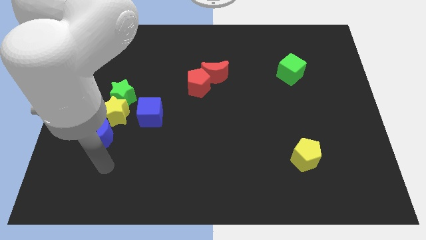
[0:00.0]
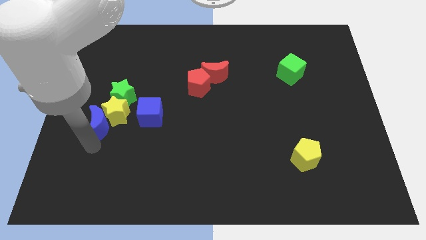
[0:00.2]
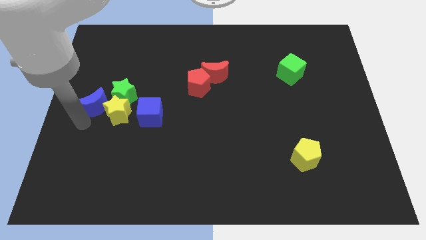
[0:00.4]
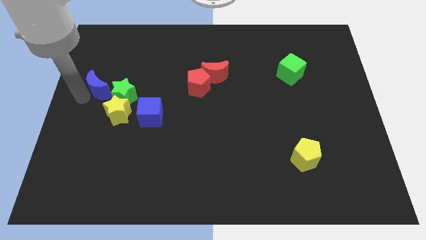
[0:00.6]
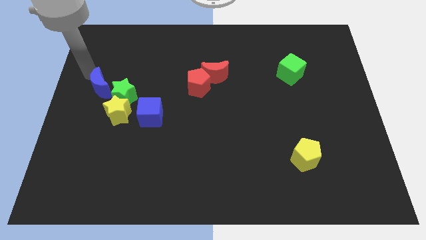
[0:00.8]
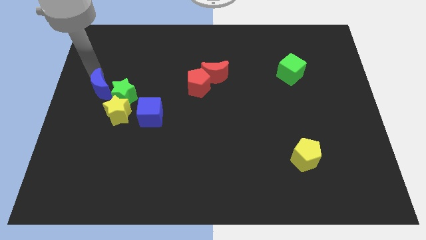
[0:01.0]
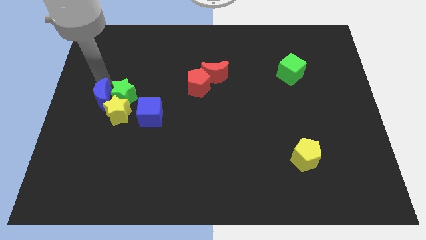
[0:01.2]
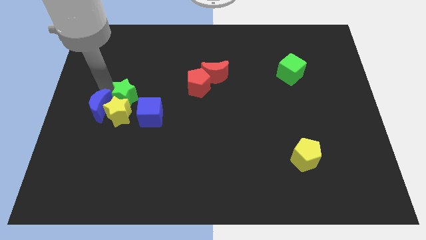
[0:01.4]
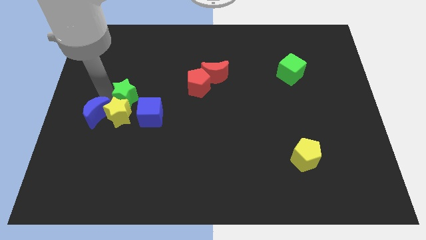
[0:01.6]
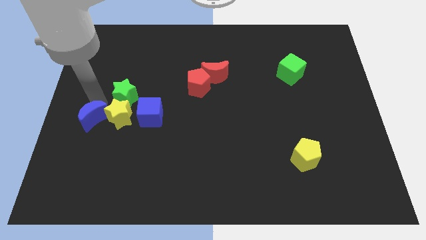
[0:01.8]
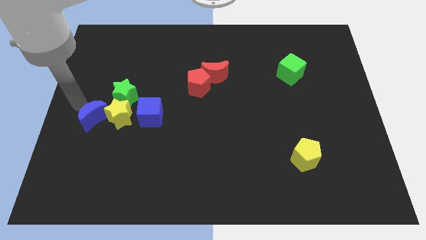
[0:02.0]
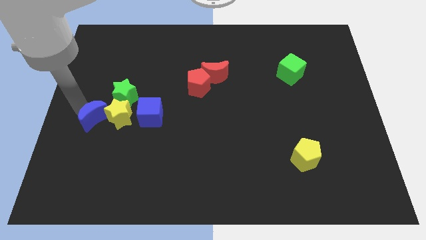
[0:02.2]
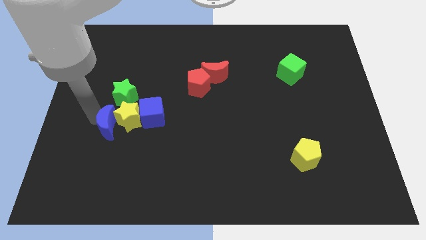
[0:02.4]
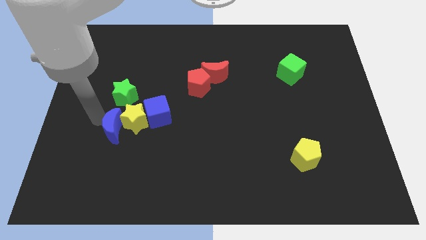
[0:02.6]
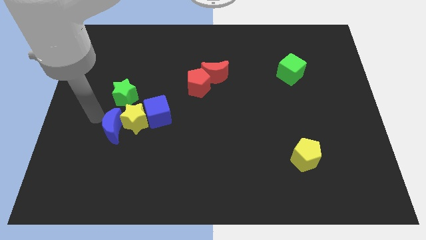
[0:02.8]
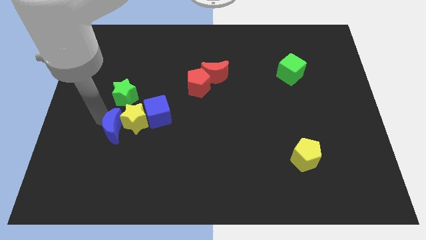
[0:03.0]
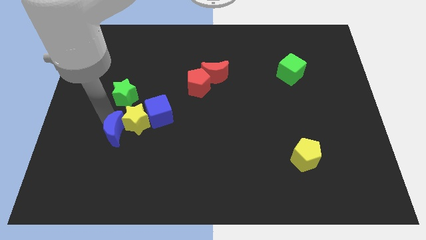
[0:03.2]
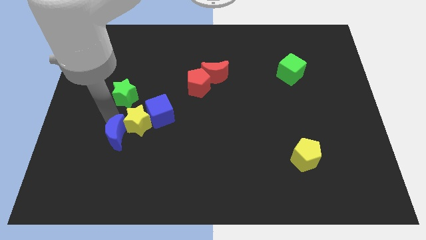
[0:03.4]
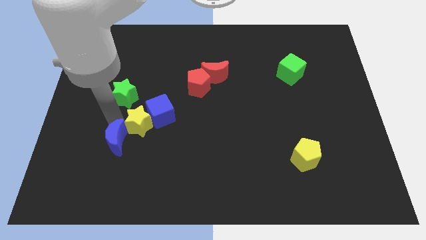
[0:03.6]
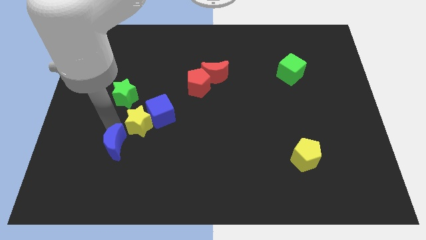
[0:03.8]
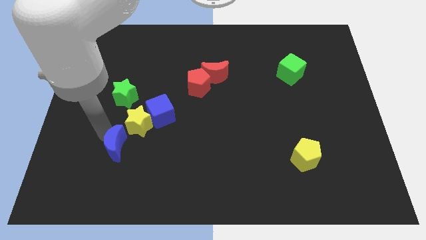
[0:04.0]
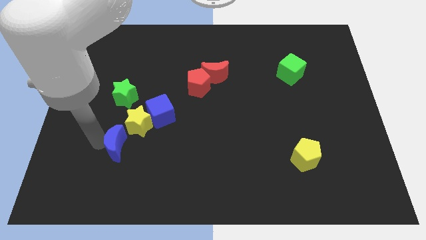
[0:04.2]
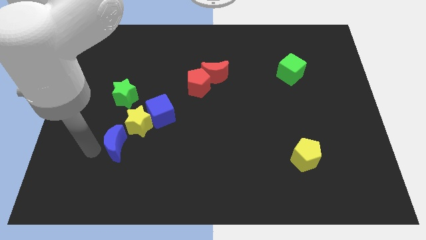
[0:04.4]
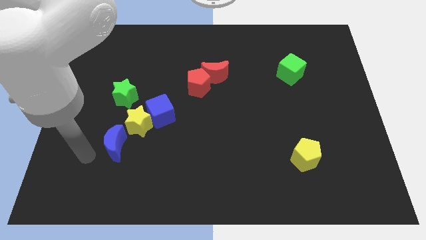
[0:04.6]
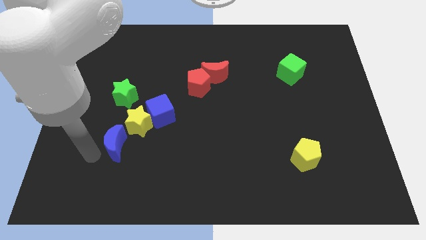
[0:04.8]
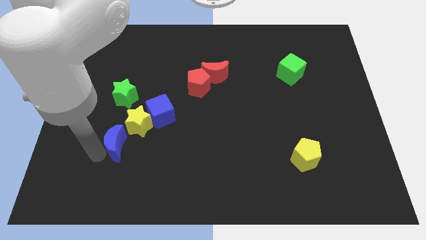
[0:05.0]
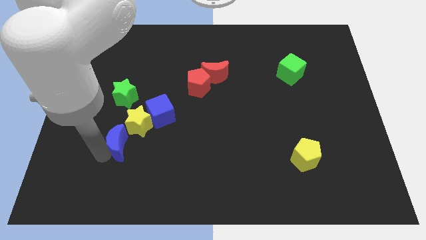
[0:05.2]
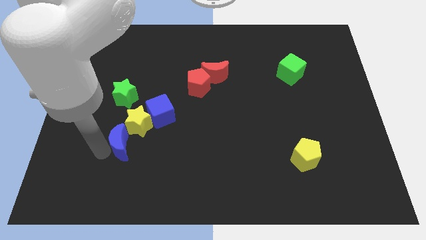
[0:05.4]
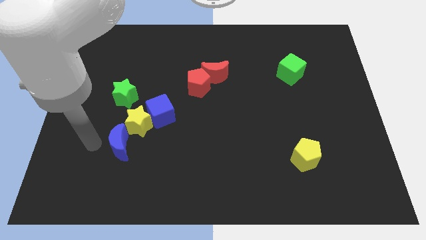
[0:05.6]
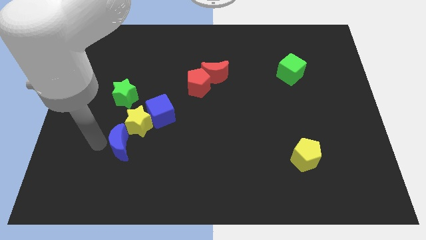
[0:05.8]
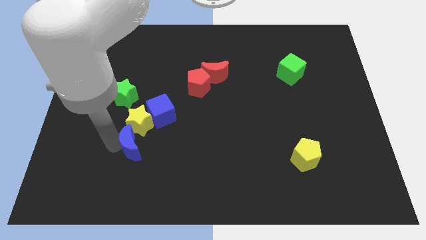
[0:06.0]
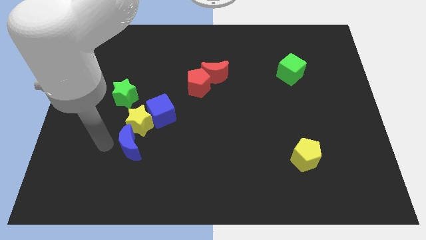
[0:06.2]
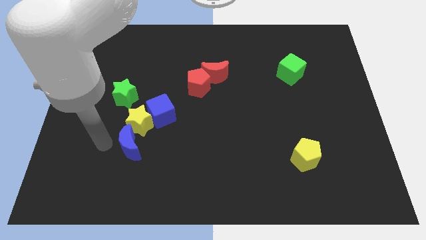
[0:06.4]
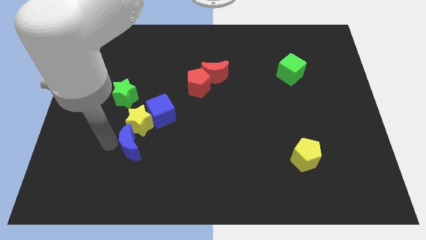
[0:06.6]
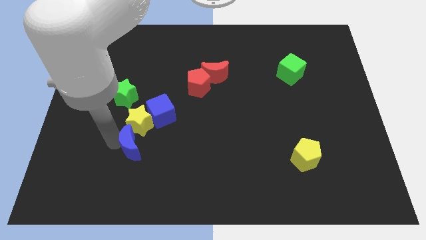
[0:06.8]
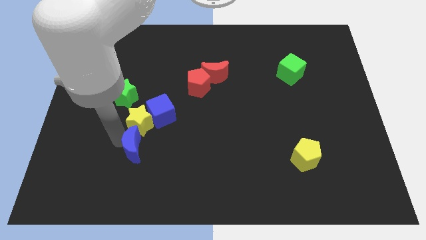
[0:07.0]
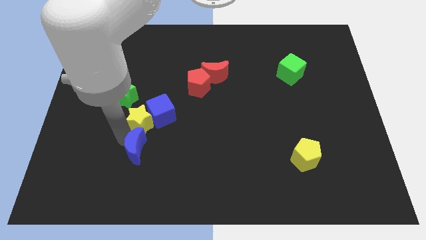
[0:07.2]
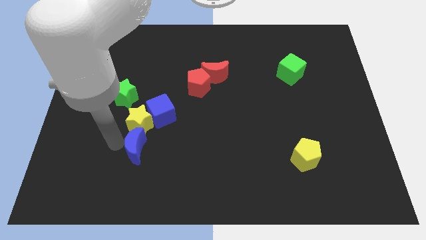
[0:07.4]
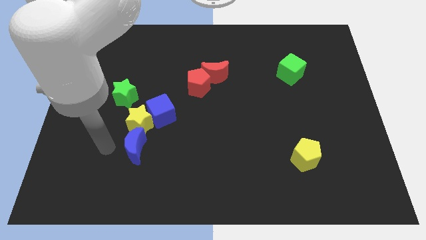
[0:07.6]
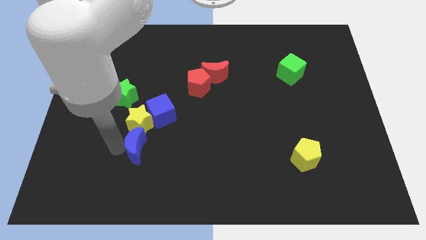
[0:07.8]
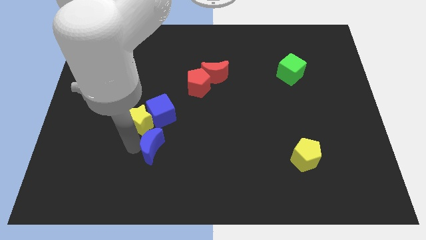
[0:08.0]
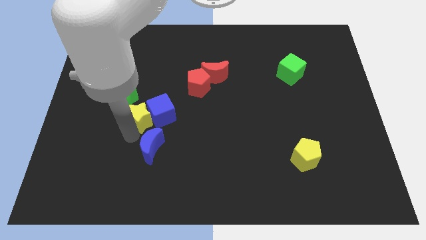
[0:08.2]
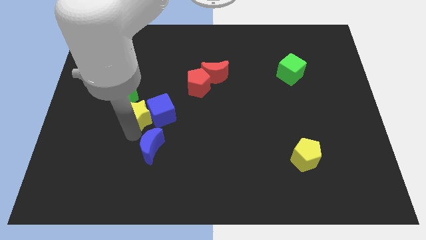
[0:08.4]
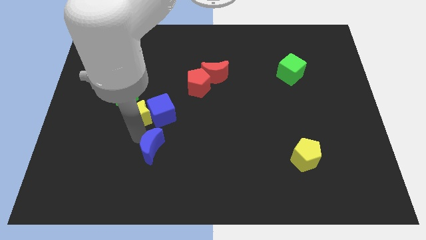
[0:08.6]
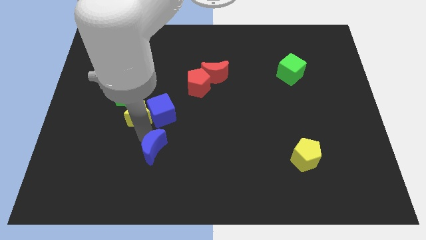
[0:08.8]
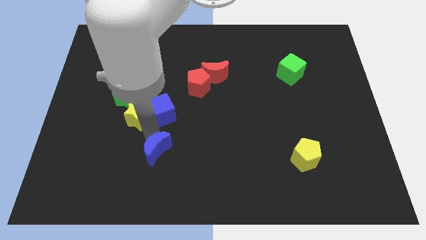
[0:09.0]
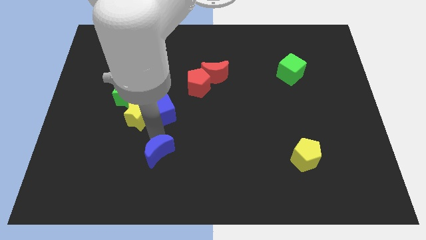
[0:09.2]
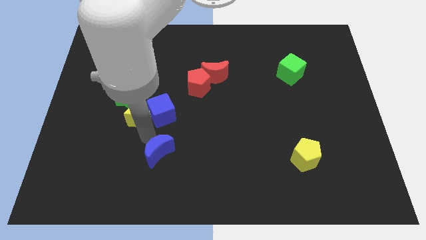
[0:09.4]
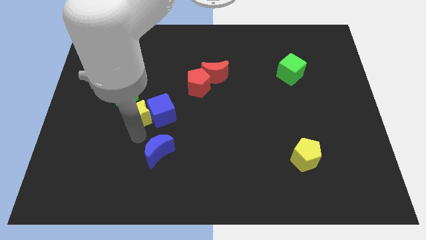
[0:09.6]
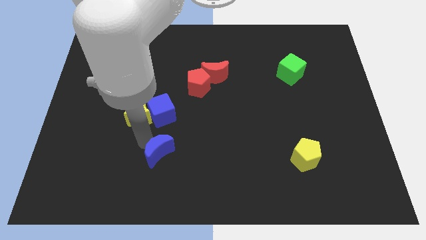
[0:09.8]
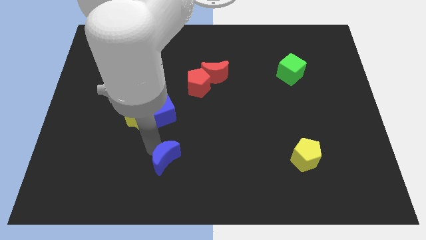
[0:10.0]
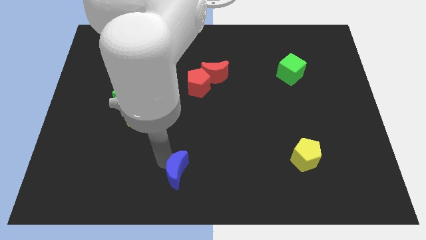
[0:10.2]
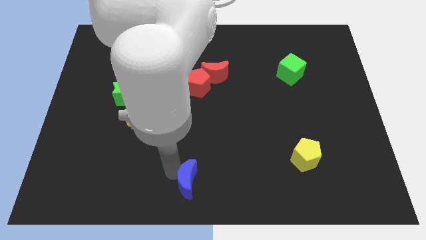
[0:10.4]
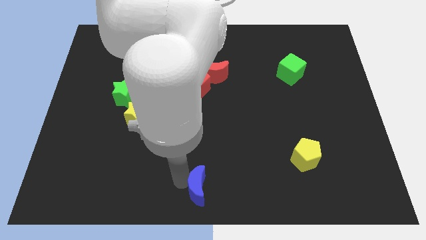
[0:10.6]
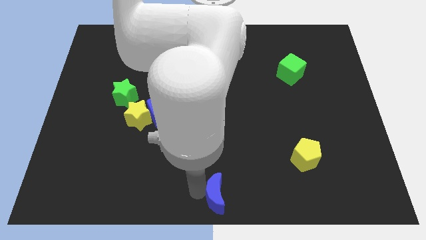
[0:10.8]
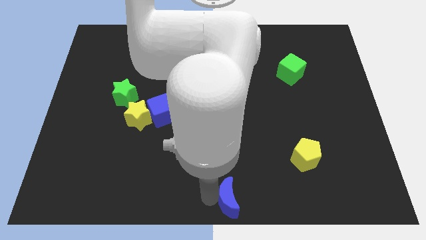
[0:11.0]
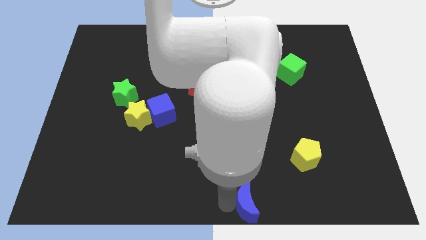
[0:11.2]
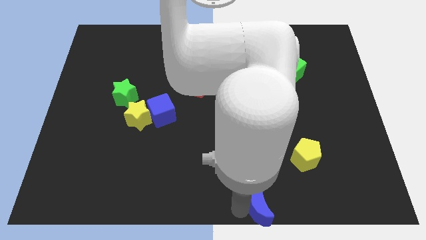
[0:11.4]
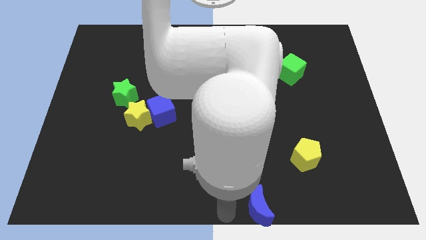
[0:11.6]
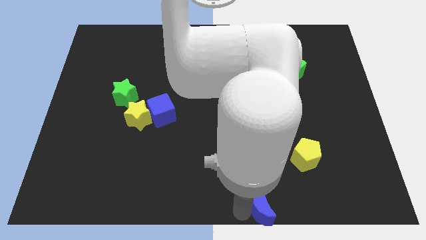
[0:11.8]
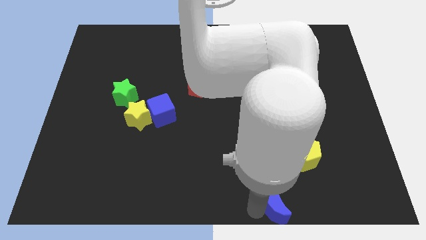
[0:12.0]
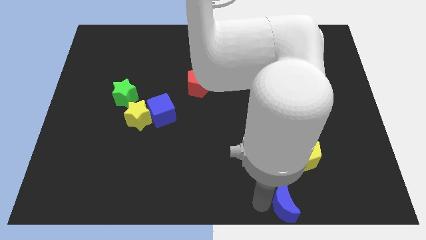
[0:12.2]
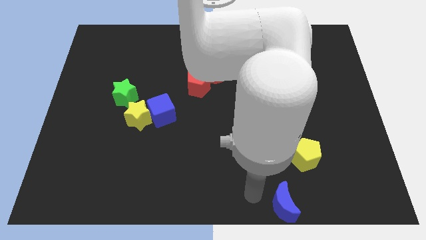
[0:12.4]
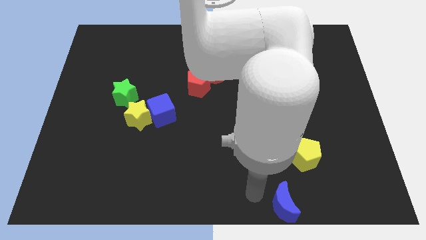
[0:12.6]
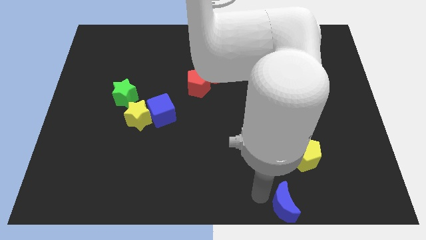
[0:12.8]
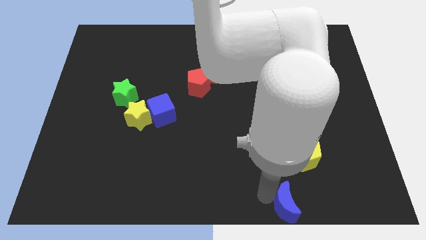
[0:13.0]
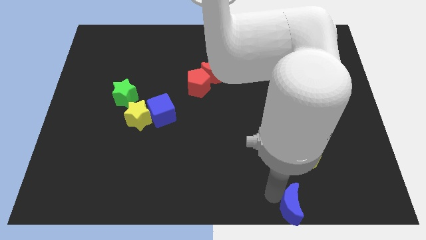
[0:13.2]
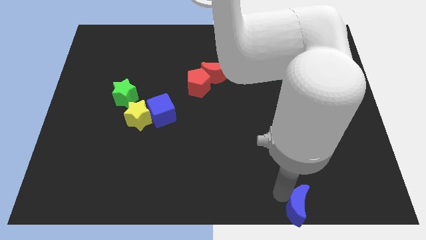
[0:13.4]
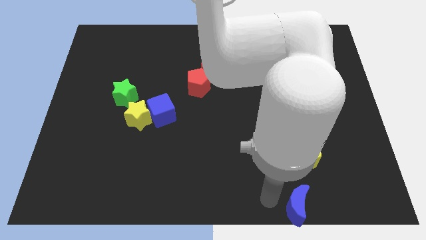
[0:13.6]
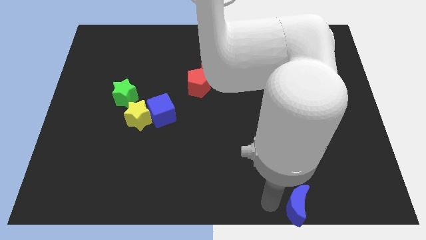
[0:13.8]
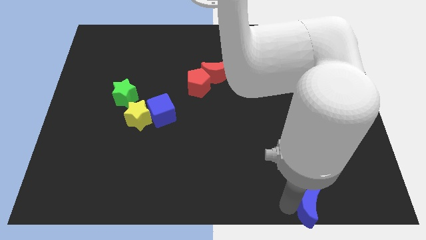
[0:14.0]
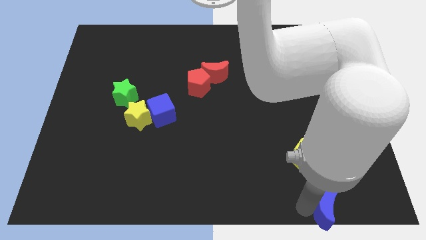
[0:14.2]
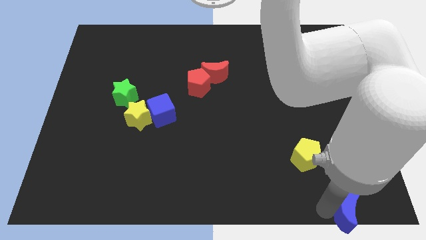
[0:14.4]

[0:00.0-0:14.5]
push the blue moon to the lower right corner

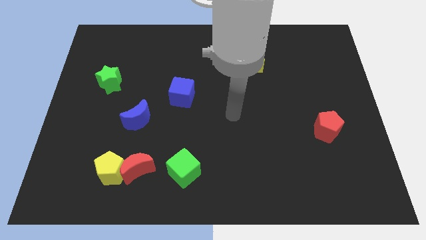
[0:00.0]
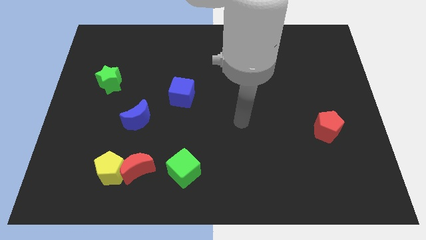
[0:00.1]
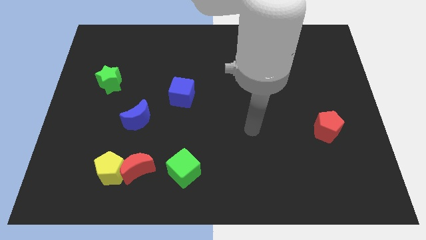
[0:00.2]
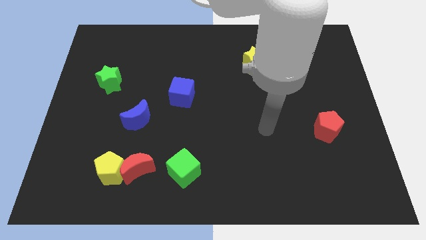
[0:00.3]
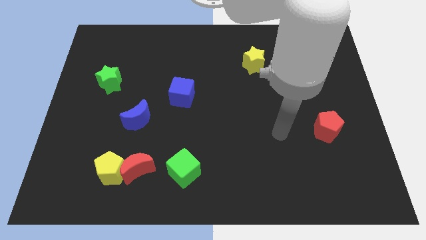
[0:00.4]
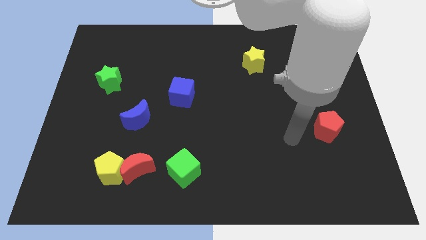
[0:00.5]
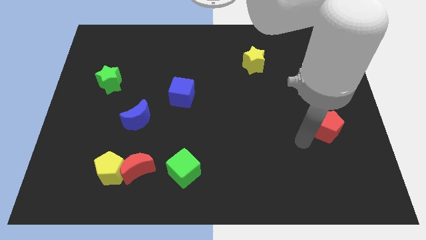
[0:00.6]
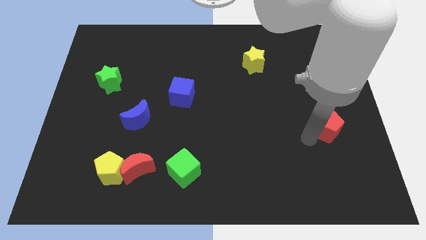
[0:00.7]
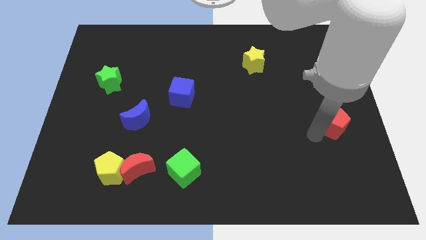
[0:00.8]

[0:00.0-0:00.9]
put the red pentagon to the right side
